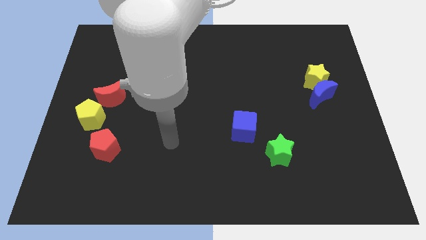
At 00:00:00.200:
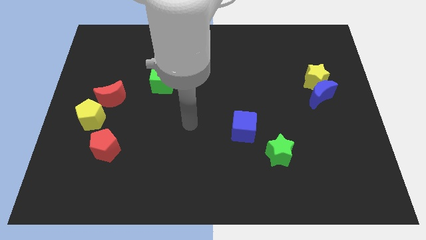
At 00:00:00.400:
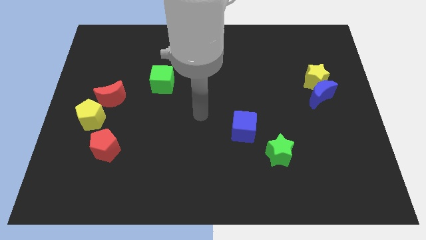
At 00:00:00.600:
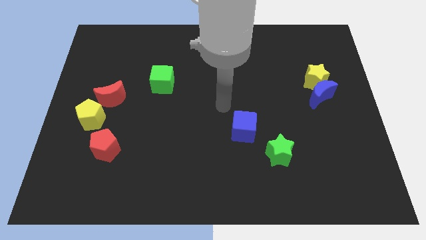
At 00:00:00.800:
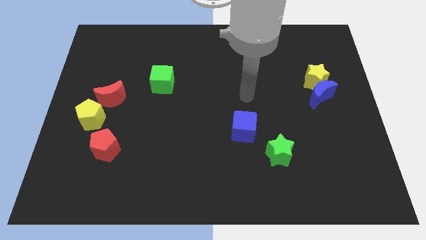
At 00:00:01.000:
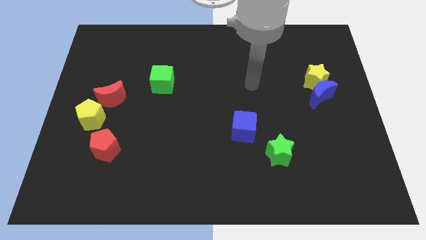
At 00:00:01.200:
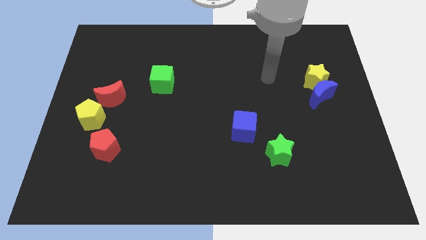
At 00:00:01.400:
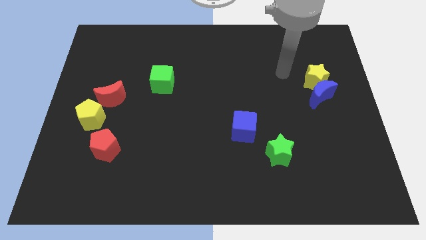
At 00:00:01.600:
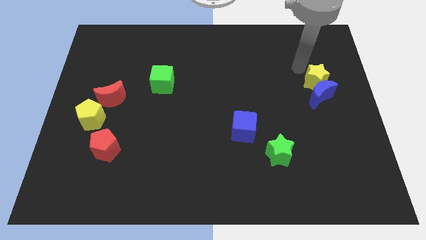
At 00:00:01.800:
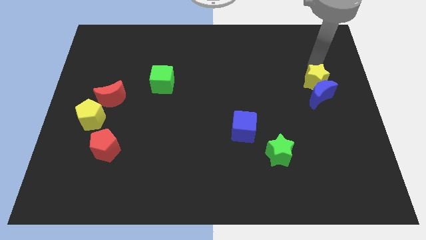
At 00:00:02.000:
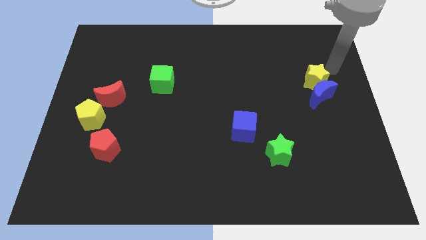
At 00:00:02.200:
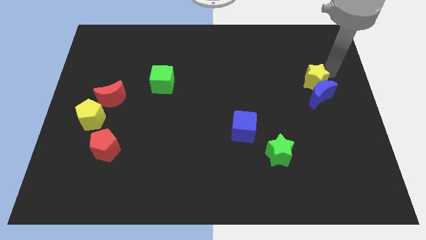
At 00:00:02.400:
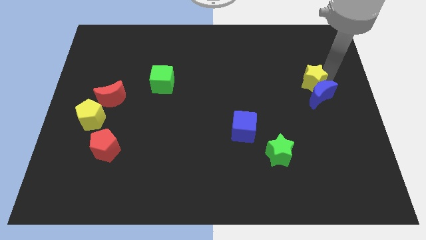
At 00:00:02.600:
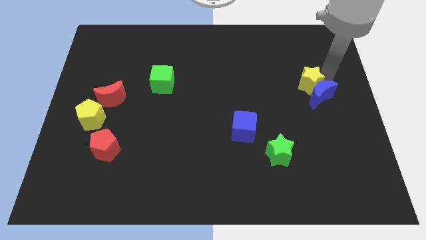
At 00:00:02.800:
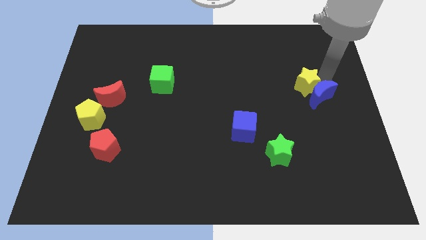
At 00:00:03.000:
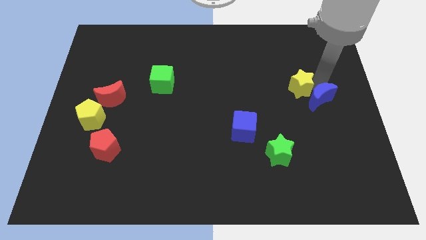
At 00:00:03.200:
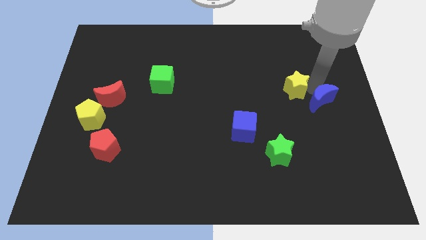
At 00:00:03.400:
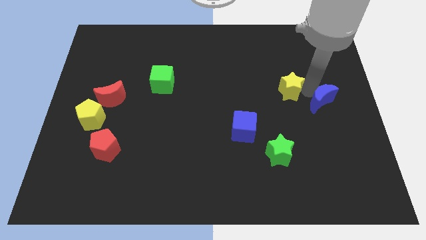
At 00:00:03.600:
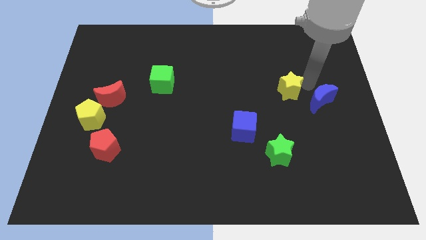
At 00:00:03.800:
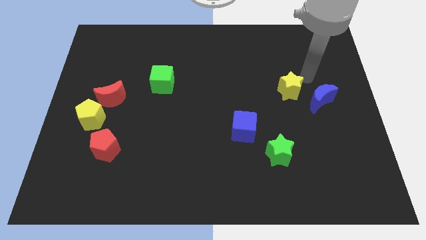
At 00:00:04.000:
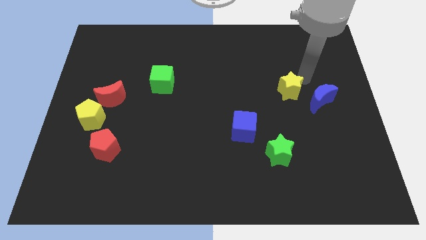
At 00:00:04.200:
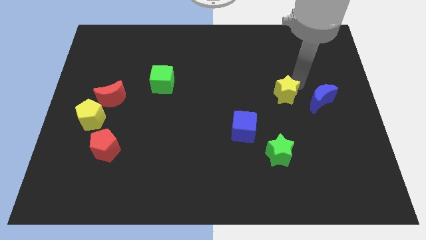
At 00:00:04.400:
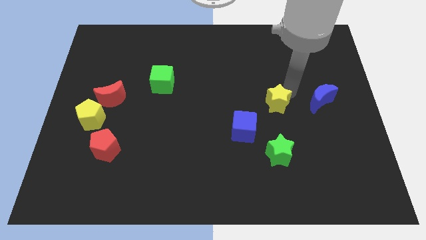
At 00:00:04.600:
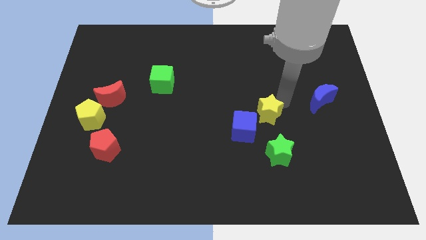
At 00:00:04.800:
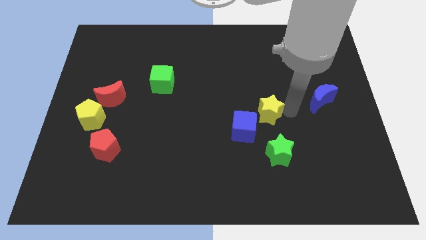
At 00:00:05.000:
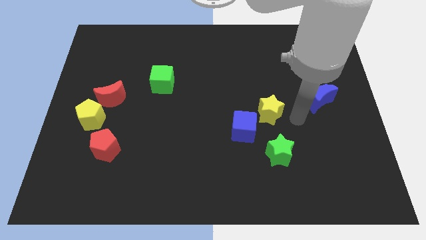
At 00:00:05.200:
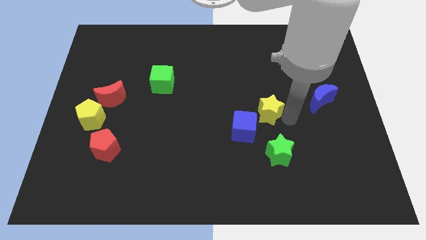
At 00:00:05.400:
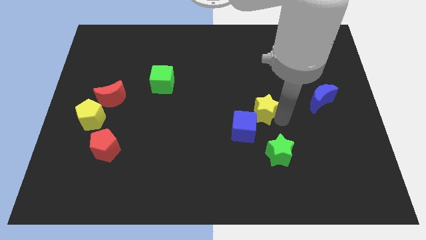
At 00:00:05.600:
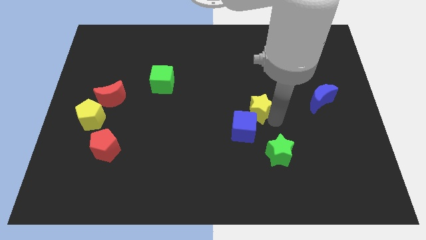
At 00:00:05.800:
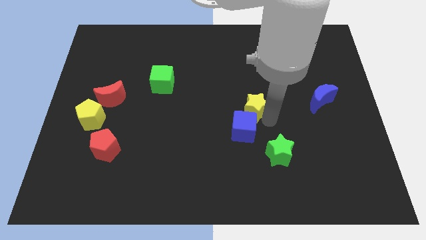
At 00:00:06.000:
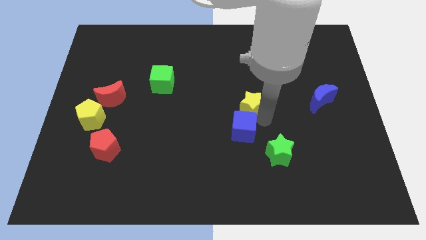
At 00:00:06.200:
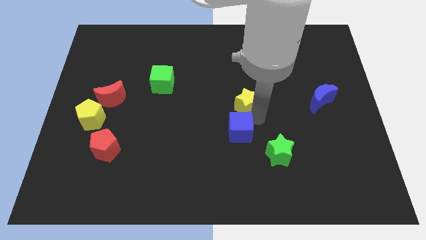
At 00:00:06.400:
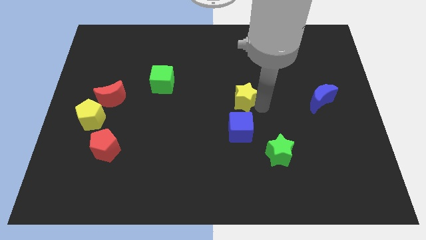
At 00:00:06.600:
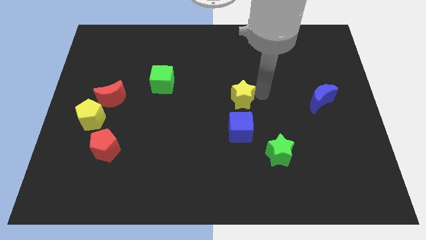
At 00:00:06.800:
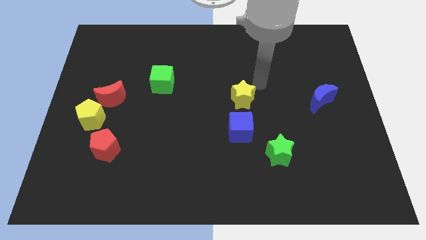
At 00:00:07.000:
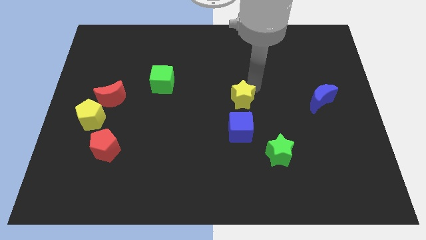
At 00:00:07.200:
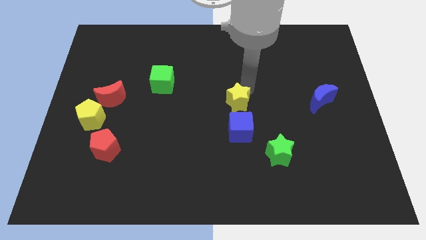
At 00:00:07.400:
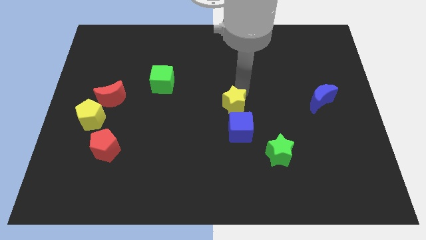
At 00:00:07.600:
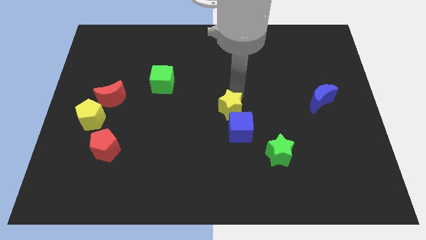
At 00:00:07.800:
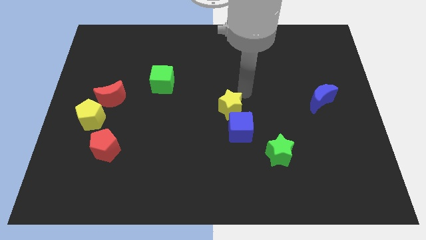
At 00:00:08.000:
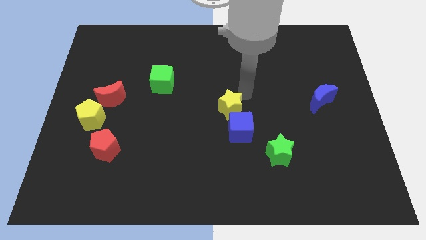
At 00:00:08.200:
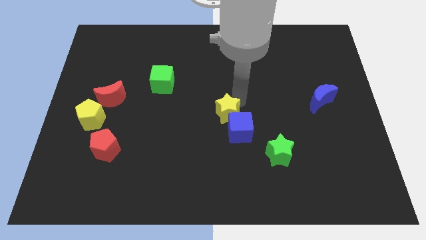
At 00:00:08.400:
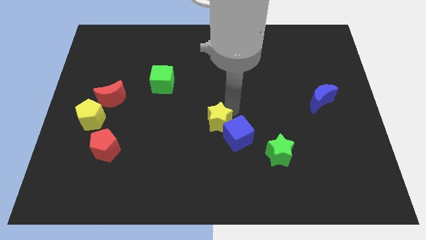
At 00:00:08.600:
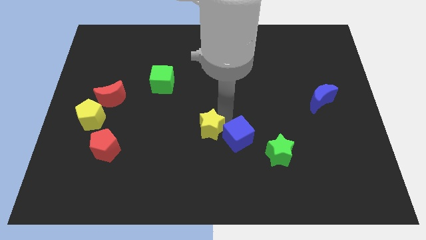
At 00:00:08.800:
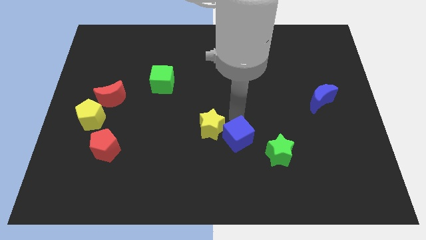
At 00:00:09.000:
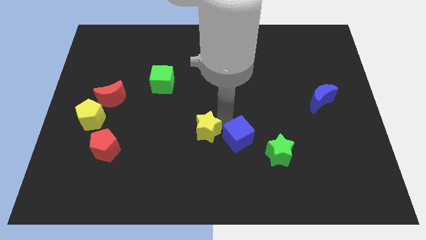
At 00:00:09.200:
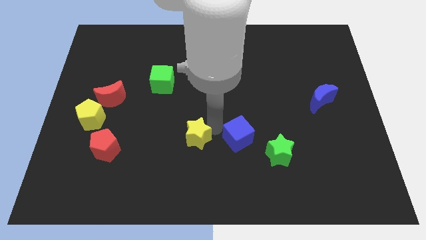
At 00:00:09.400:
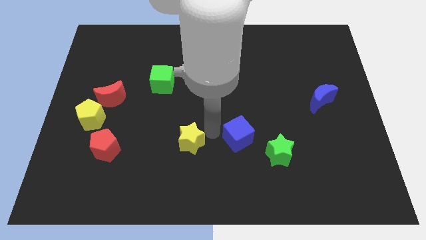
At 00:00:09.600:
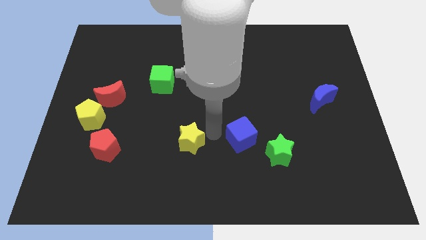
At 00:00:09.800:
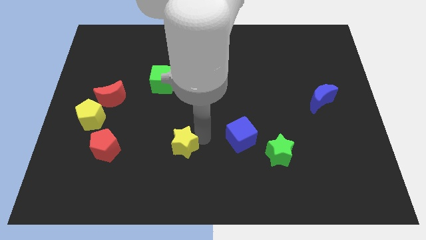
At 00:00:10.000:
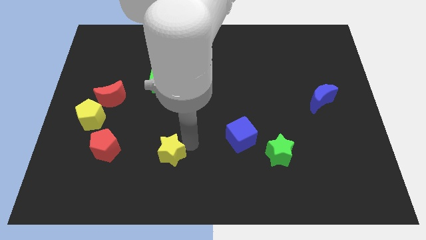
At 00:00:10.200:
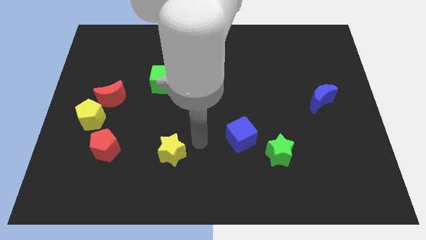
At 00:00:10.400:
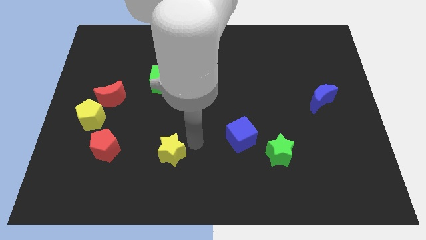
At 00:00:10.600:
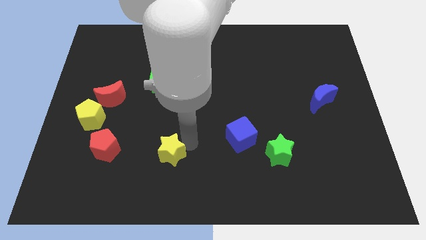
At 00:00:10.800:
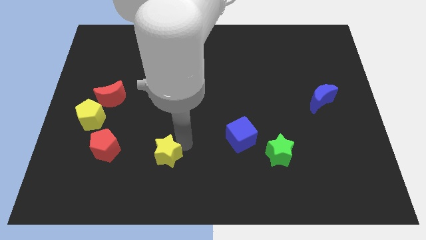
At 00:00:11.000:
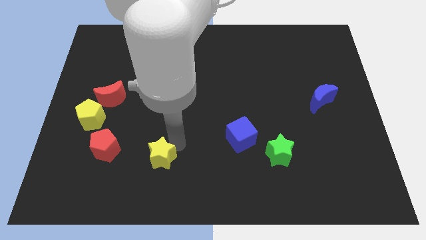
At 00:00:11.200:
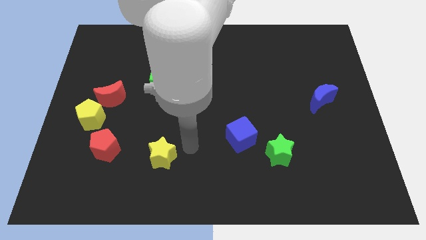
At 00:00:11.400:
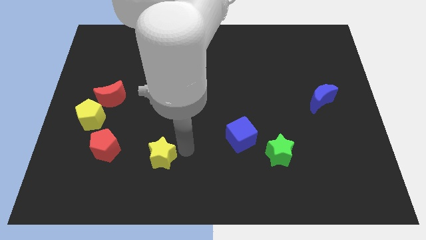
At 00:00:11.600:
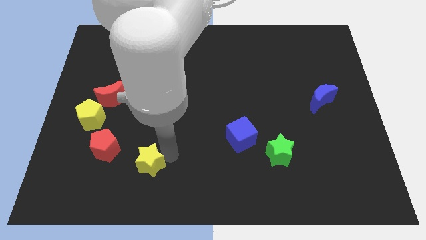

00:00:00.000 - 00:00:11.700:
slide the yellow star to the bottom right of the red pentagon
